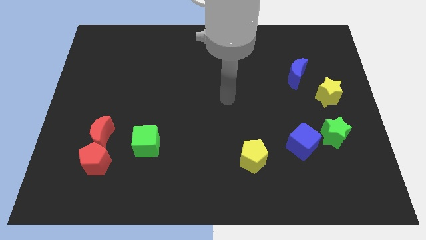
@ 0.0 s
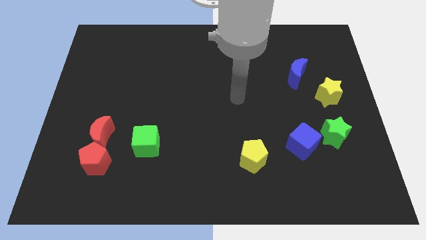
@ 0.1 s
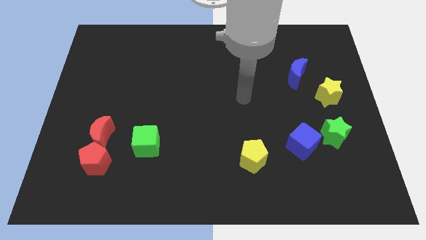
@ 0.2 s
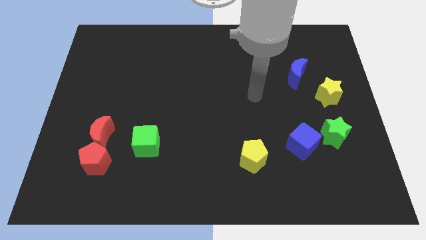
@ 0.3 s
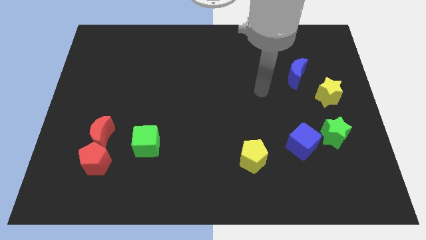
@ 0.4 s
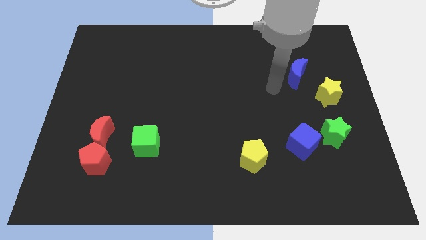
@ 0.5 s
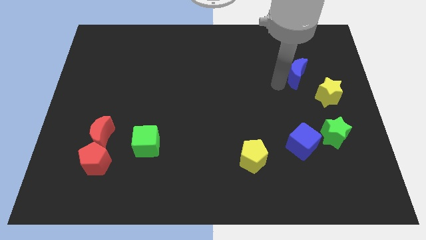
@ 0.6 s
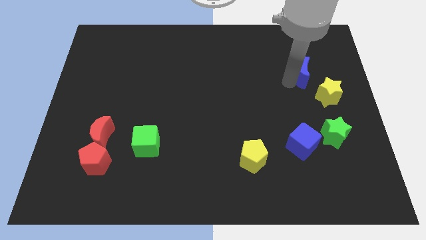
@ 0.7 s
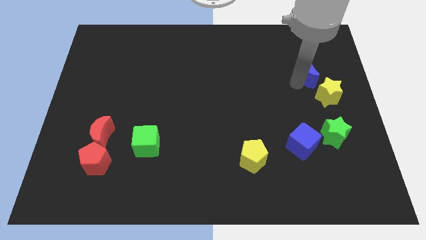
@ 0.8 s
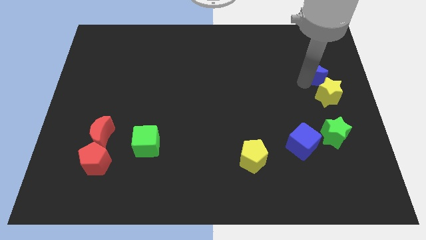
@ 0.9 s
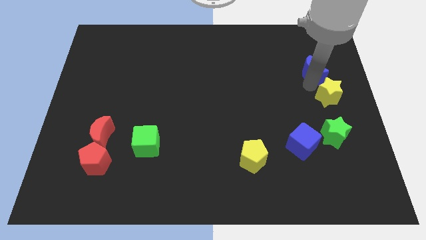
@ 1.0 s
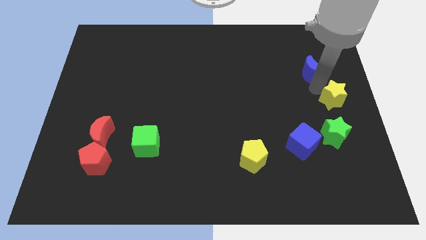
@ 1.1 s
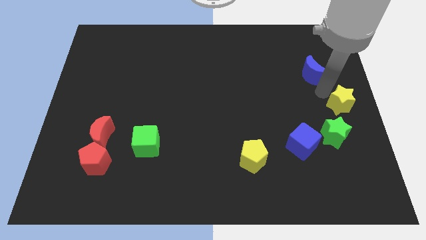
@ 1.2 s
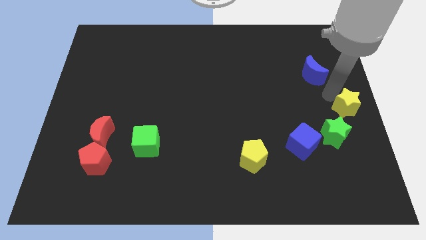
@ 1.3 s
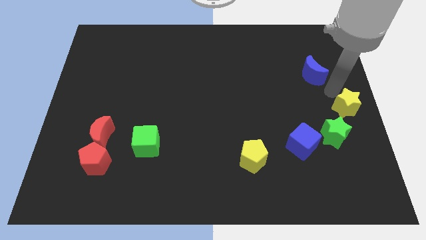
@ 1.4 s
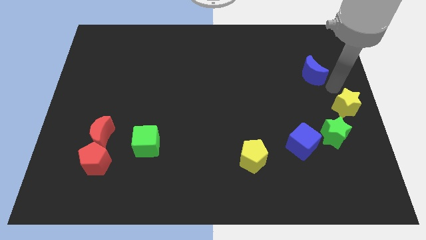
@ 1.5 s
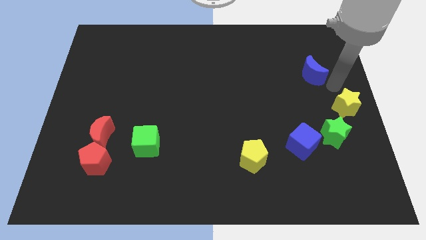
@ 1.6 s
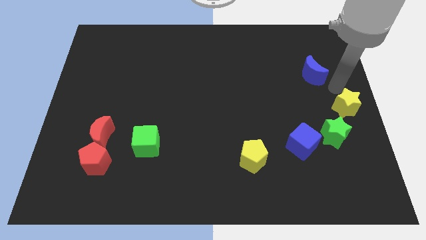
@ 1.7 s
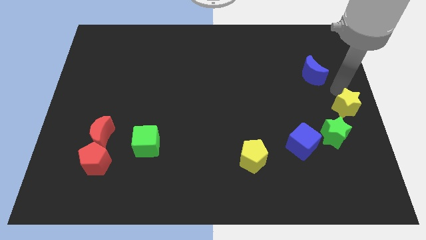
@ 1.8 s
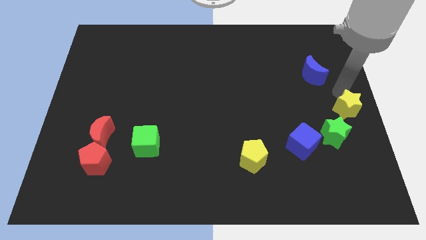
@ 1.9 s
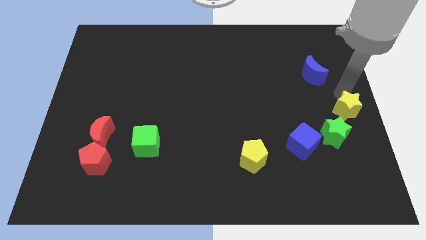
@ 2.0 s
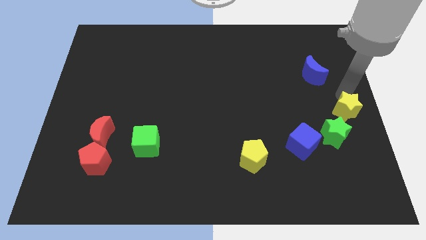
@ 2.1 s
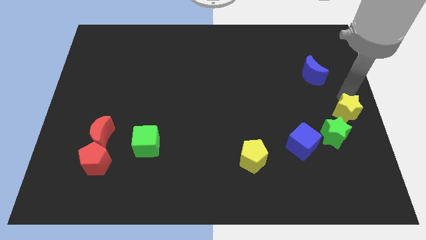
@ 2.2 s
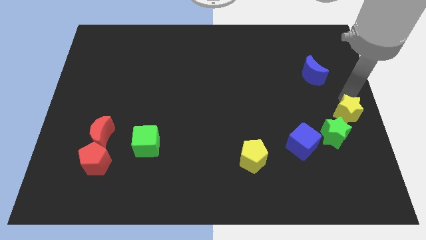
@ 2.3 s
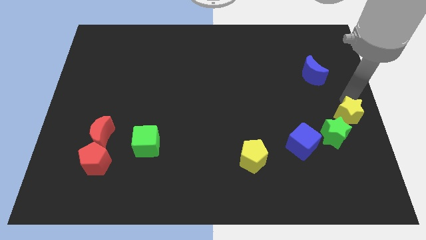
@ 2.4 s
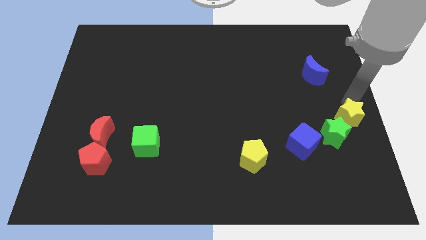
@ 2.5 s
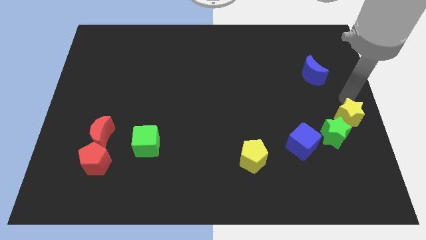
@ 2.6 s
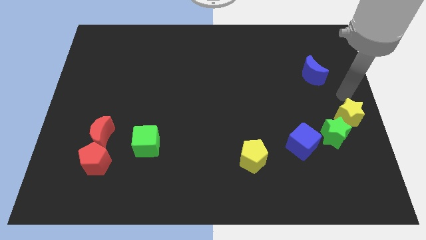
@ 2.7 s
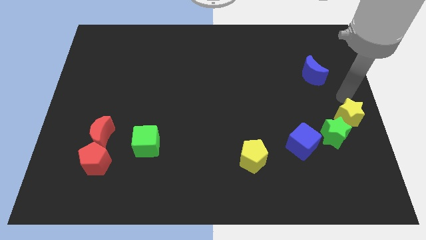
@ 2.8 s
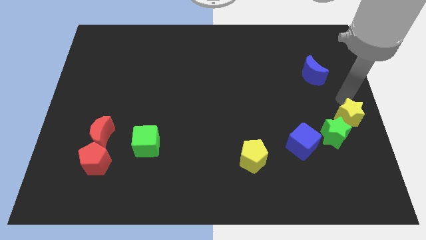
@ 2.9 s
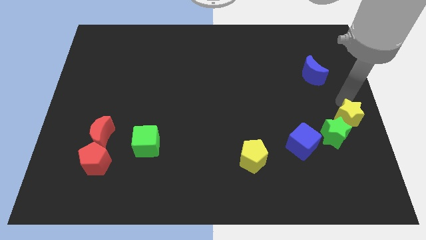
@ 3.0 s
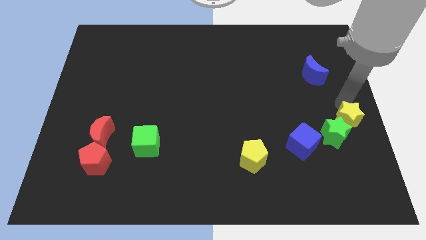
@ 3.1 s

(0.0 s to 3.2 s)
push the yellow star slightly down

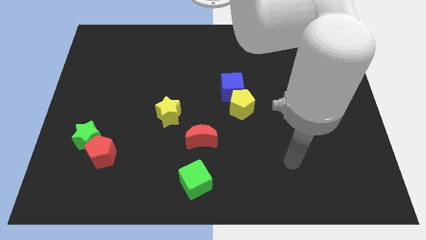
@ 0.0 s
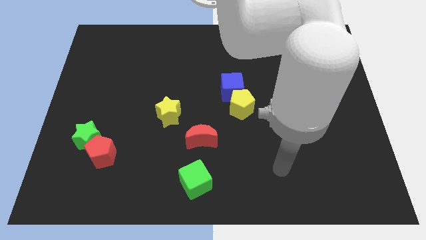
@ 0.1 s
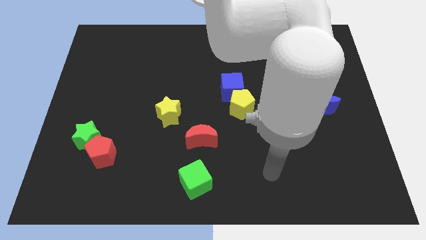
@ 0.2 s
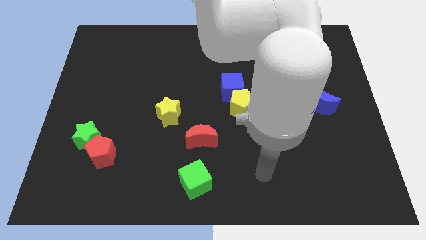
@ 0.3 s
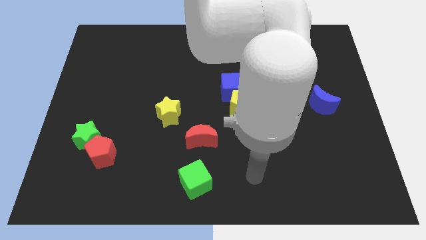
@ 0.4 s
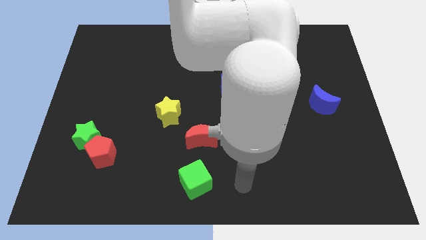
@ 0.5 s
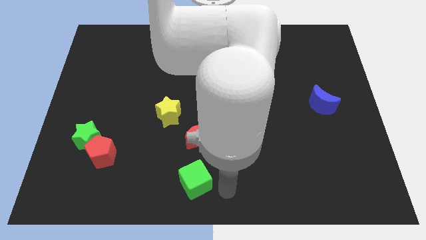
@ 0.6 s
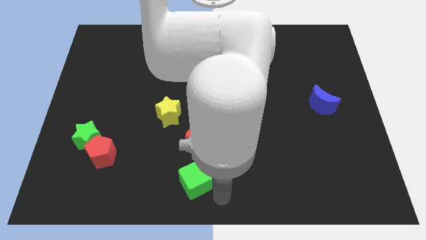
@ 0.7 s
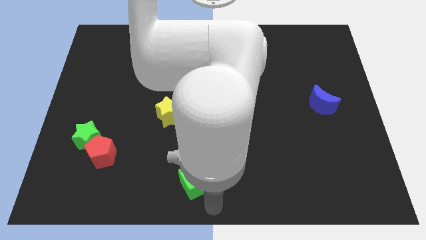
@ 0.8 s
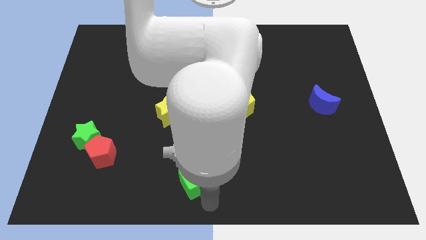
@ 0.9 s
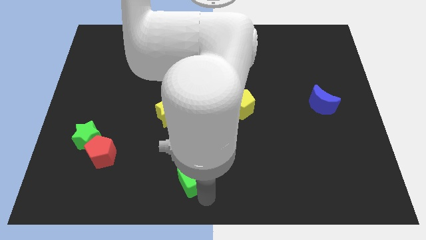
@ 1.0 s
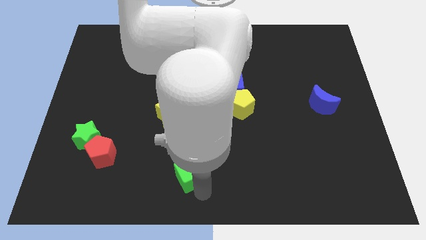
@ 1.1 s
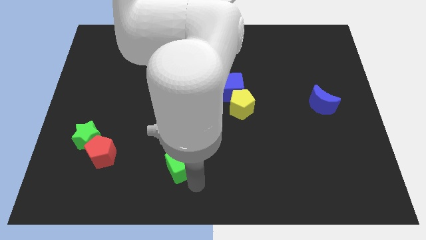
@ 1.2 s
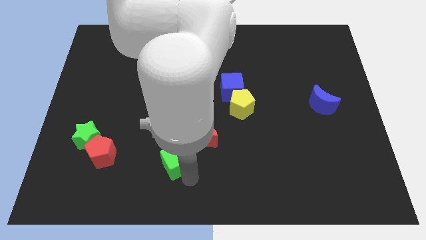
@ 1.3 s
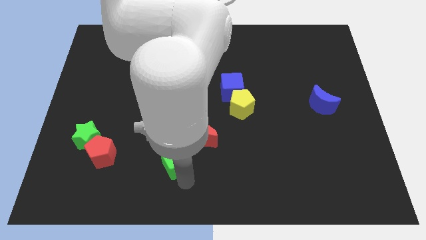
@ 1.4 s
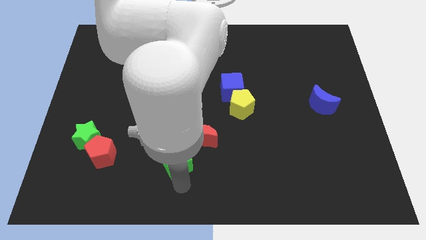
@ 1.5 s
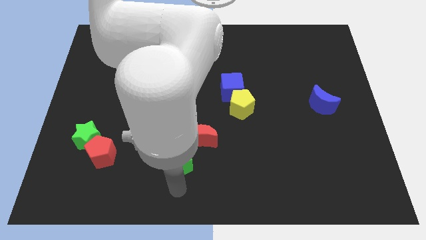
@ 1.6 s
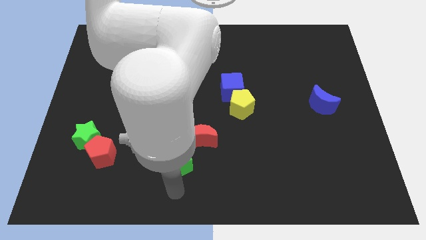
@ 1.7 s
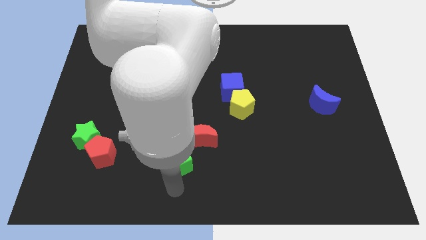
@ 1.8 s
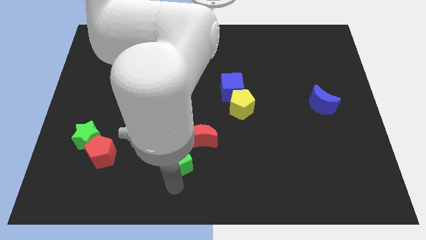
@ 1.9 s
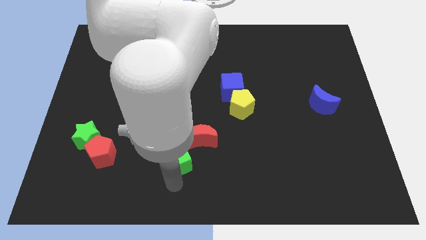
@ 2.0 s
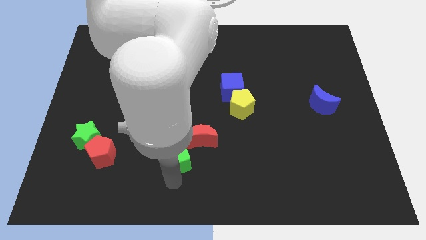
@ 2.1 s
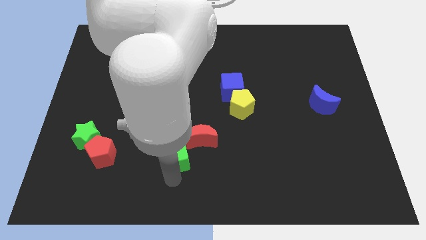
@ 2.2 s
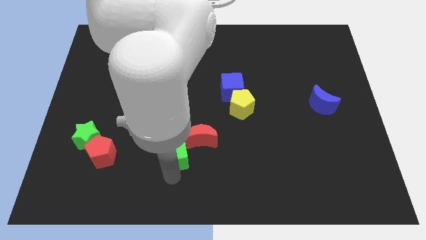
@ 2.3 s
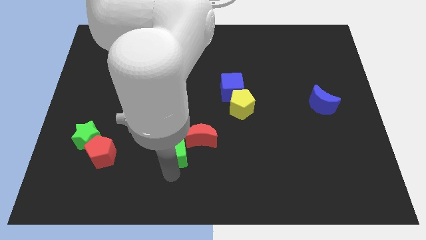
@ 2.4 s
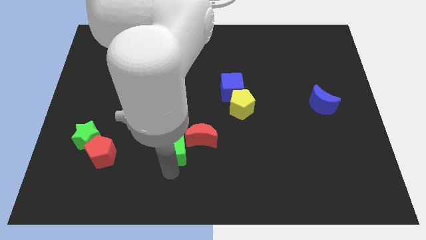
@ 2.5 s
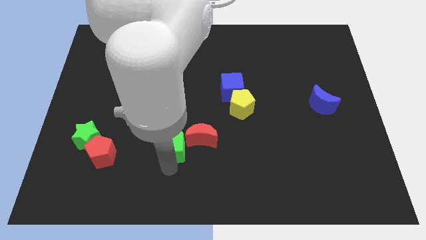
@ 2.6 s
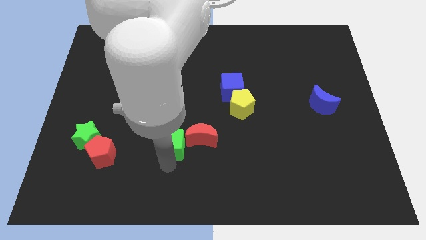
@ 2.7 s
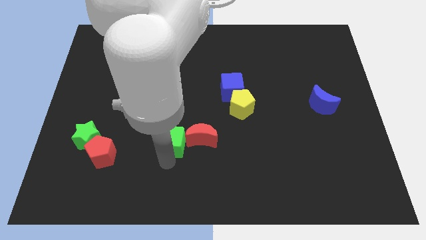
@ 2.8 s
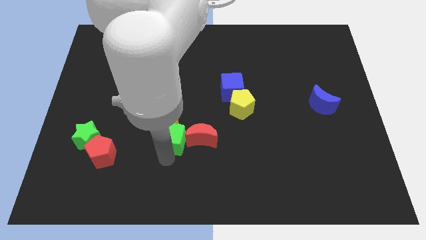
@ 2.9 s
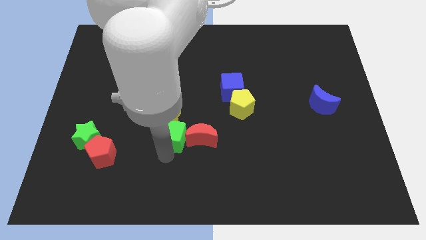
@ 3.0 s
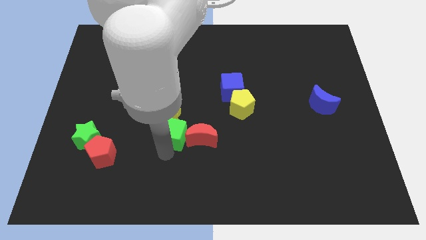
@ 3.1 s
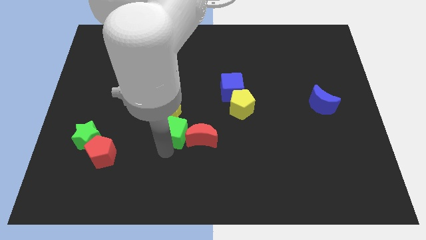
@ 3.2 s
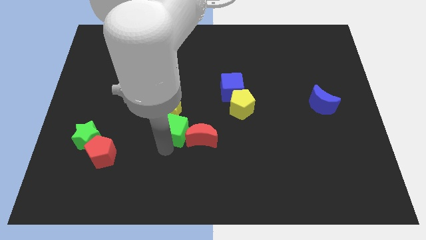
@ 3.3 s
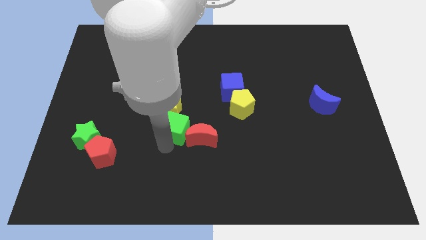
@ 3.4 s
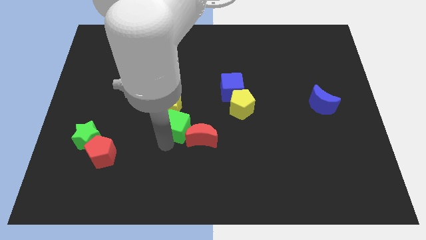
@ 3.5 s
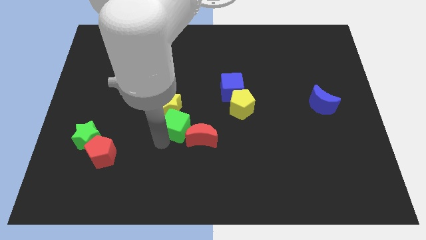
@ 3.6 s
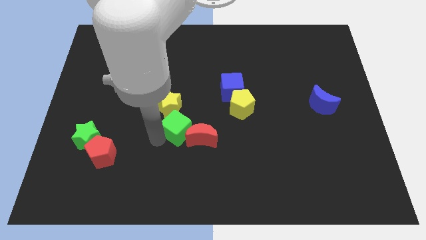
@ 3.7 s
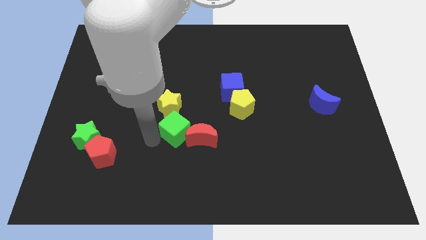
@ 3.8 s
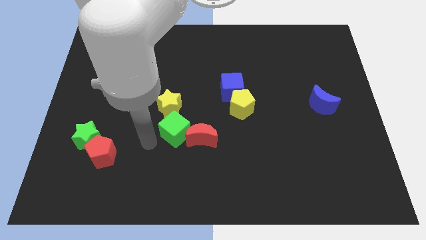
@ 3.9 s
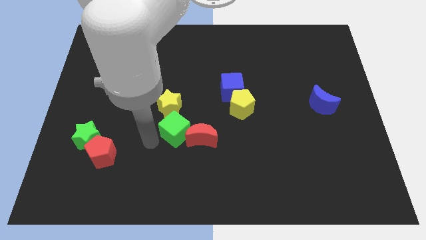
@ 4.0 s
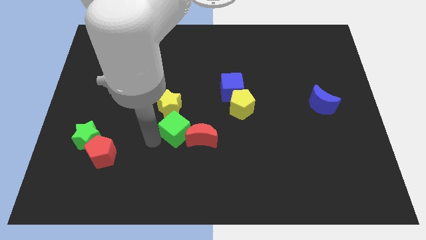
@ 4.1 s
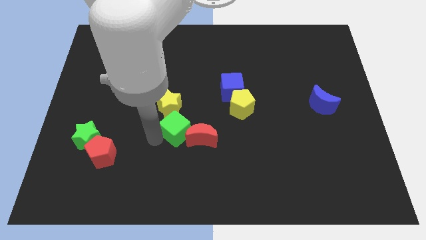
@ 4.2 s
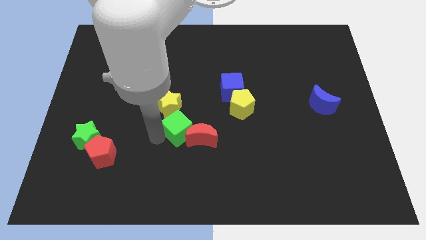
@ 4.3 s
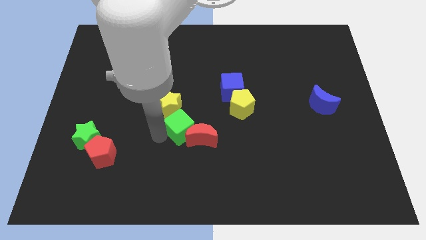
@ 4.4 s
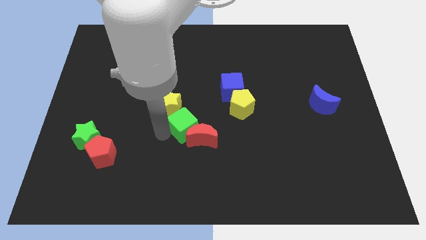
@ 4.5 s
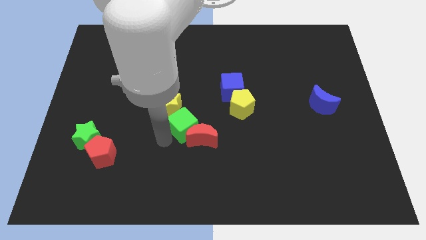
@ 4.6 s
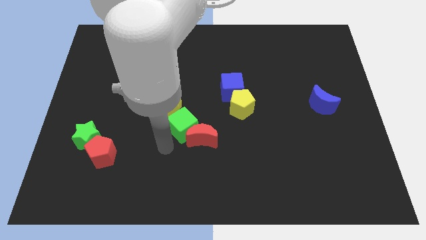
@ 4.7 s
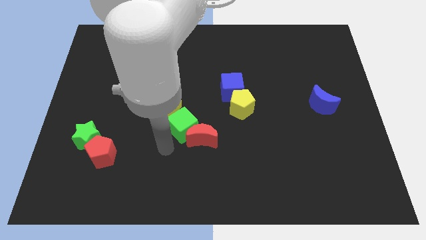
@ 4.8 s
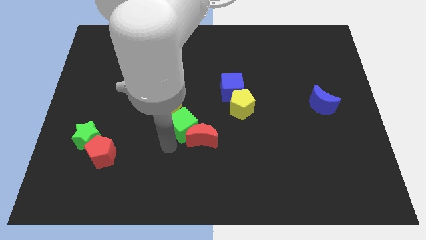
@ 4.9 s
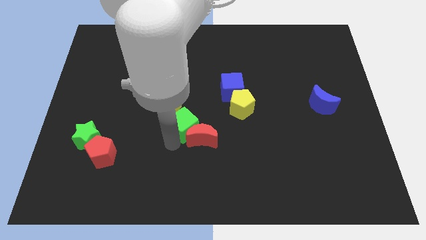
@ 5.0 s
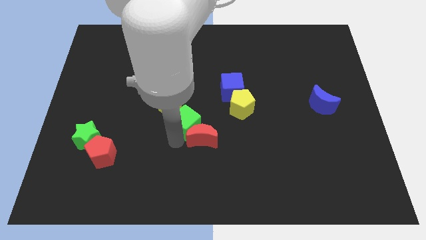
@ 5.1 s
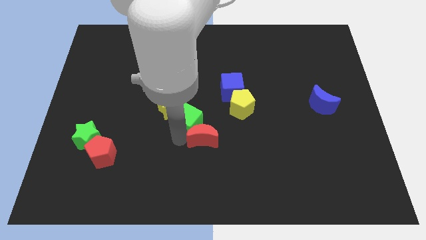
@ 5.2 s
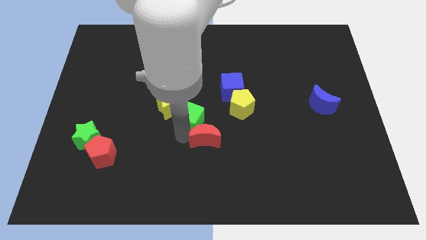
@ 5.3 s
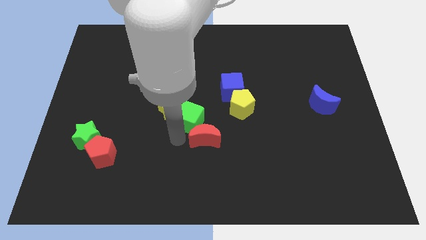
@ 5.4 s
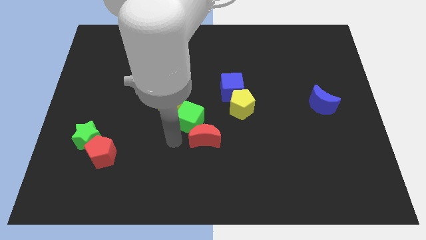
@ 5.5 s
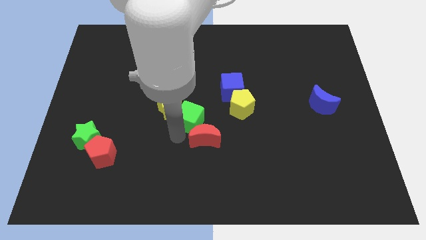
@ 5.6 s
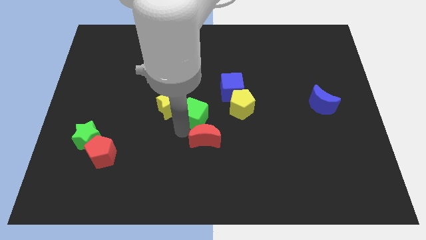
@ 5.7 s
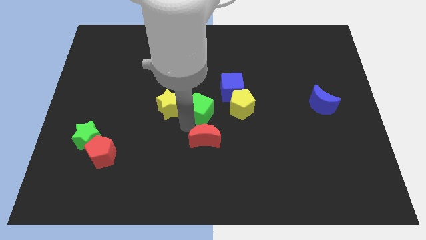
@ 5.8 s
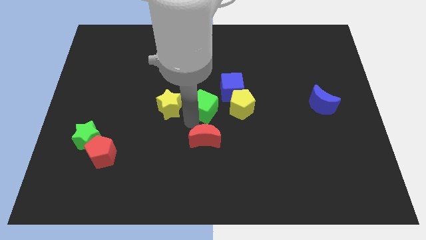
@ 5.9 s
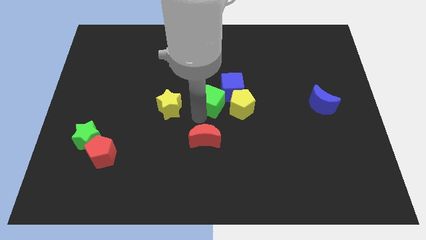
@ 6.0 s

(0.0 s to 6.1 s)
push the green cube upwards
